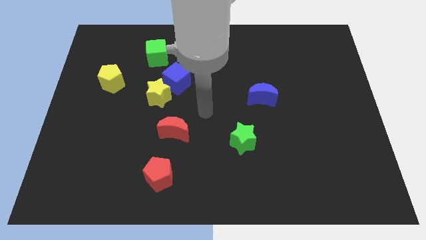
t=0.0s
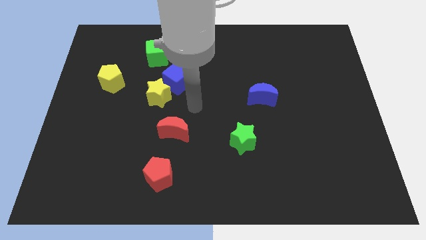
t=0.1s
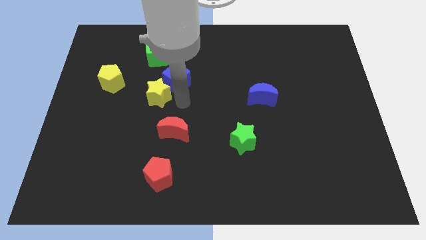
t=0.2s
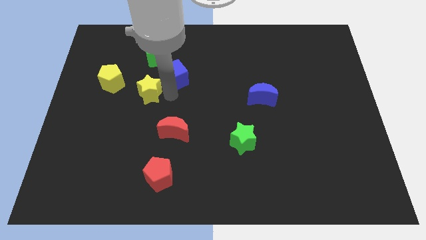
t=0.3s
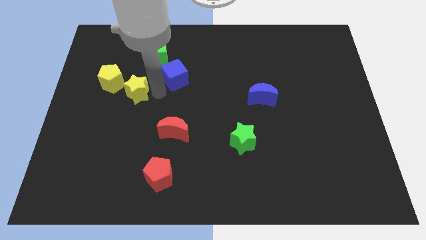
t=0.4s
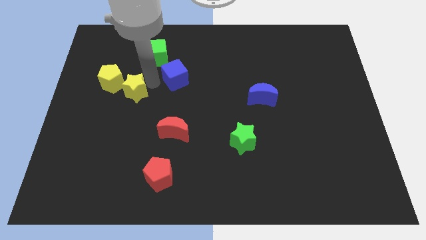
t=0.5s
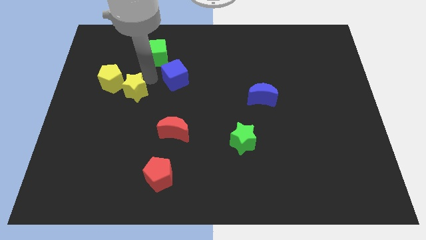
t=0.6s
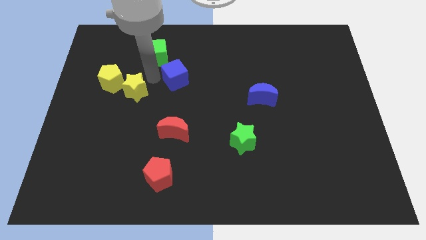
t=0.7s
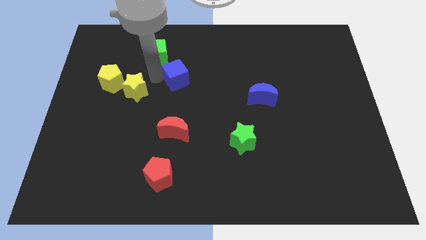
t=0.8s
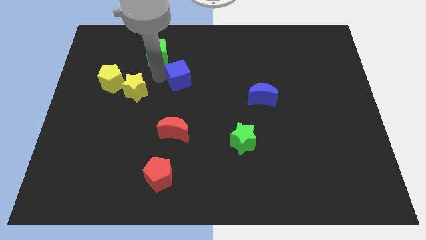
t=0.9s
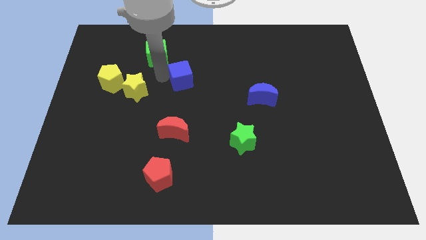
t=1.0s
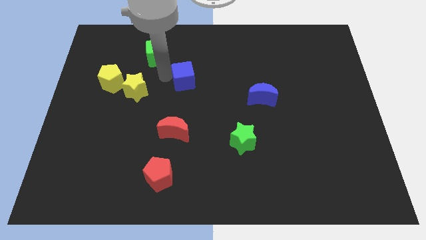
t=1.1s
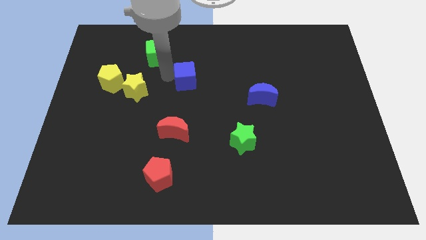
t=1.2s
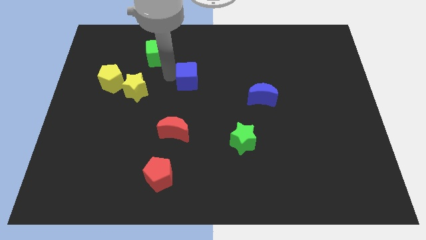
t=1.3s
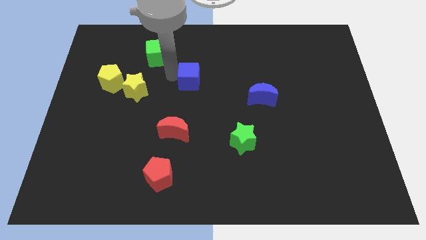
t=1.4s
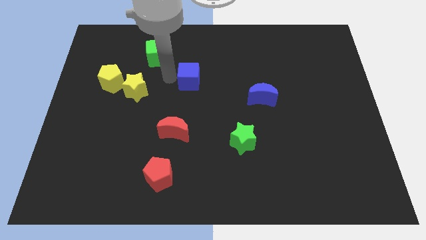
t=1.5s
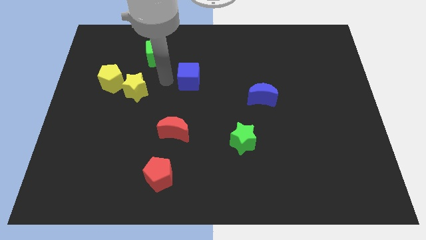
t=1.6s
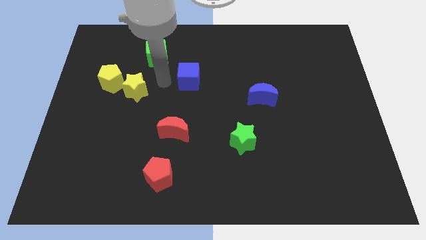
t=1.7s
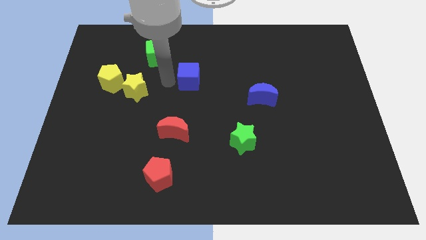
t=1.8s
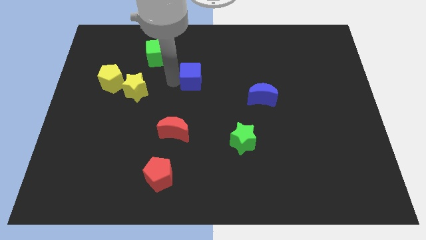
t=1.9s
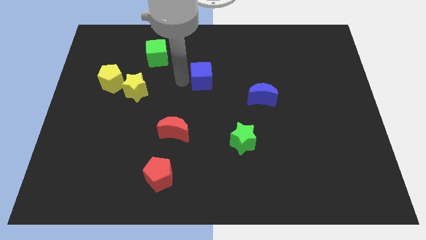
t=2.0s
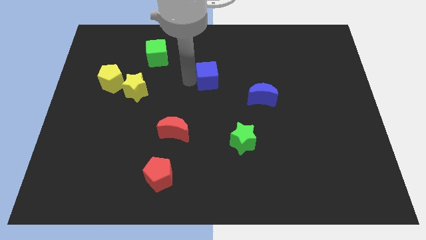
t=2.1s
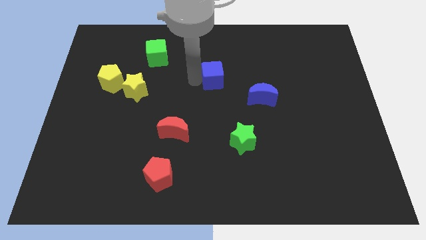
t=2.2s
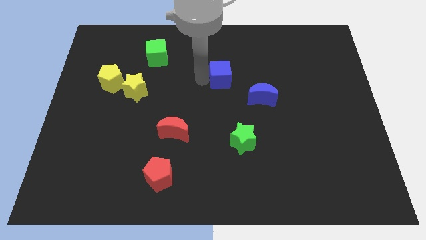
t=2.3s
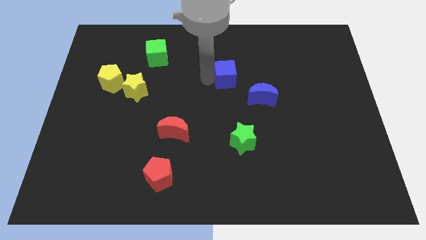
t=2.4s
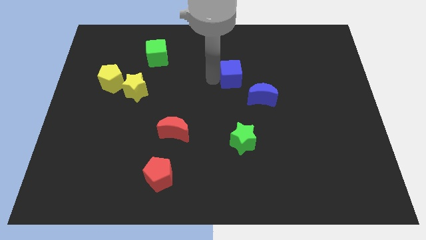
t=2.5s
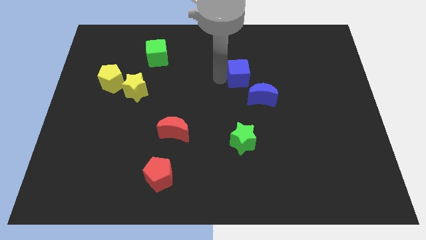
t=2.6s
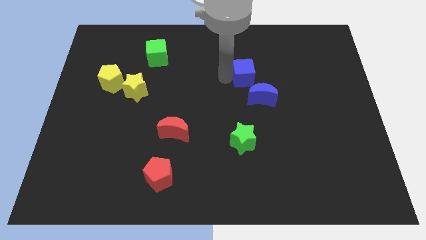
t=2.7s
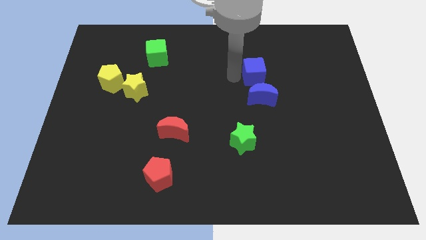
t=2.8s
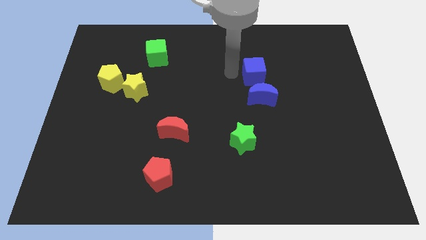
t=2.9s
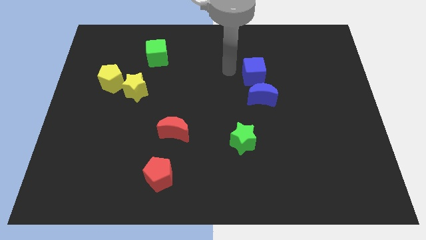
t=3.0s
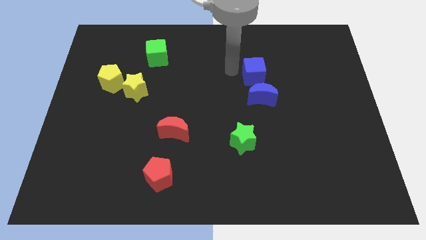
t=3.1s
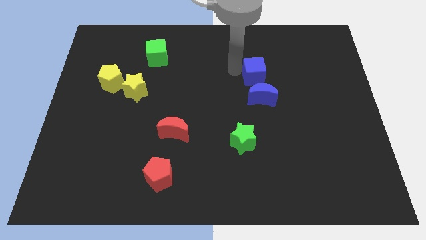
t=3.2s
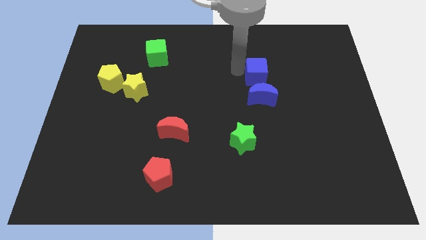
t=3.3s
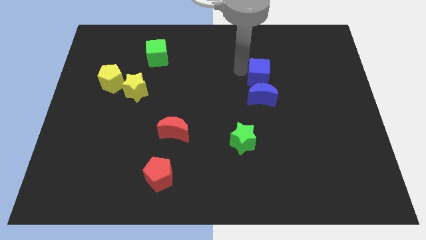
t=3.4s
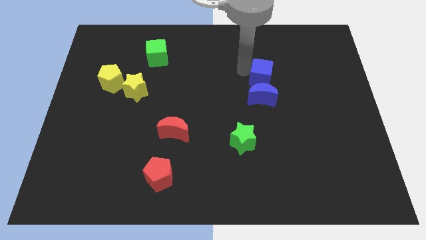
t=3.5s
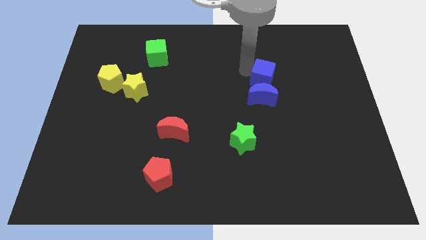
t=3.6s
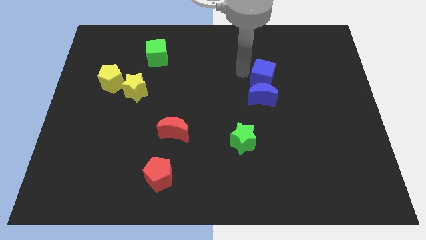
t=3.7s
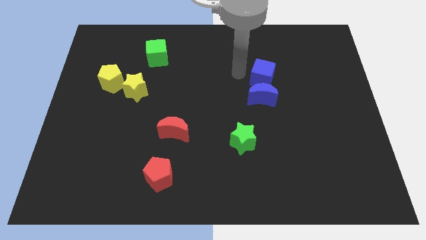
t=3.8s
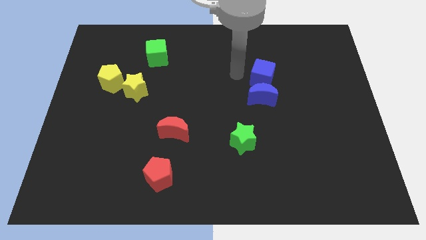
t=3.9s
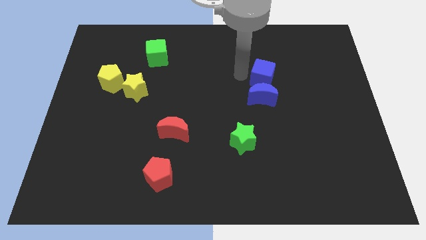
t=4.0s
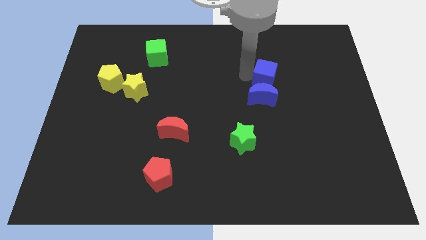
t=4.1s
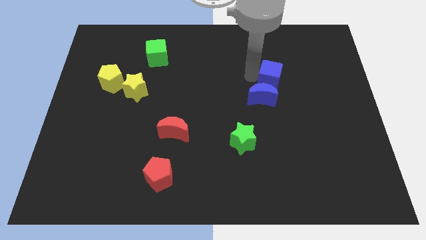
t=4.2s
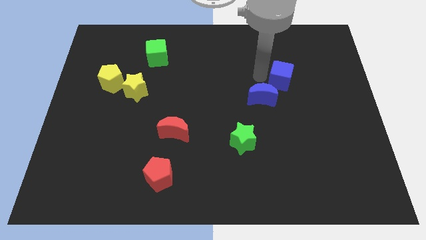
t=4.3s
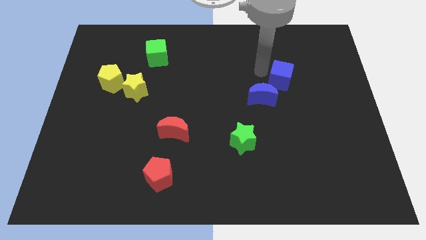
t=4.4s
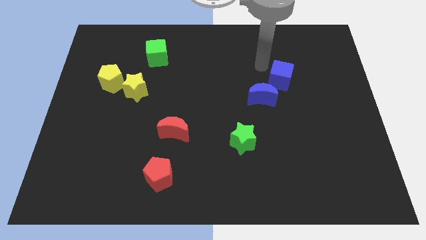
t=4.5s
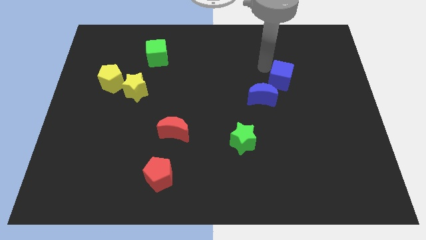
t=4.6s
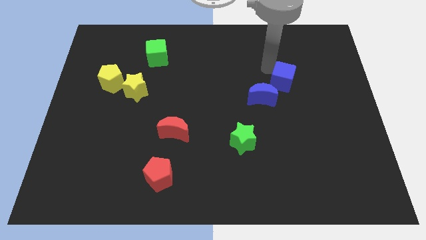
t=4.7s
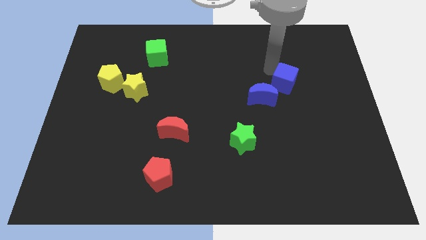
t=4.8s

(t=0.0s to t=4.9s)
move the blue cube right of the blue moon

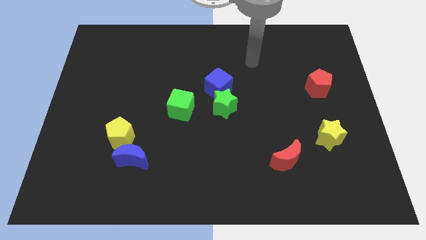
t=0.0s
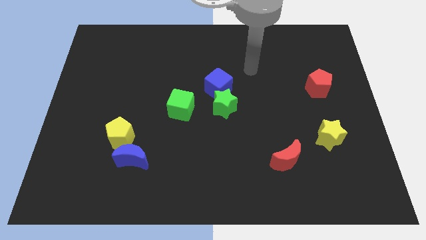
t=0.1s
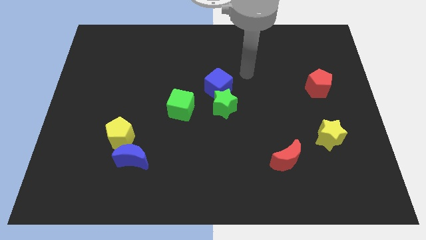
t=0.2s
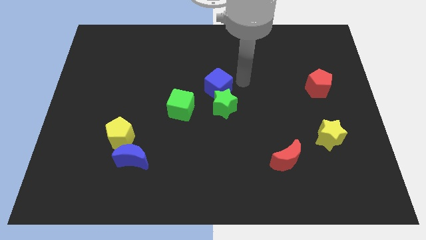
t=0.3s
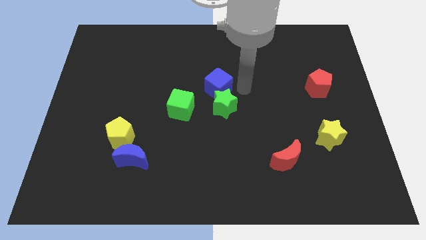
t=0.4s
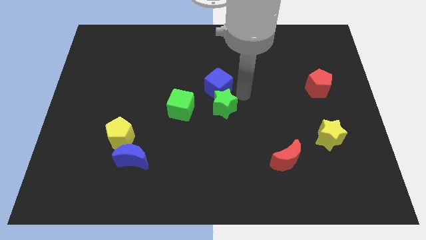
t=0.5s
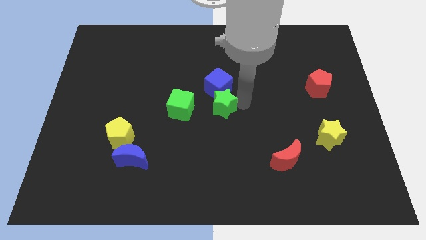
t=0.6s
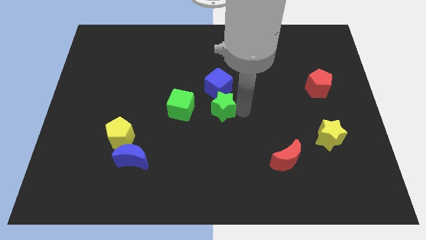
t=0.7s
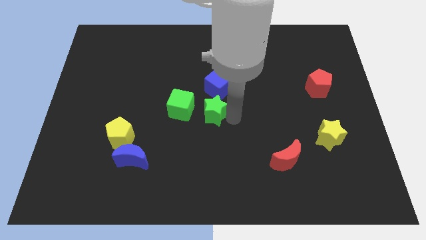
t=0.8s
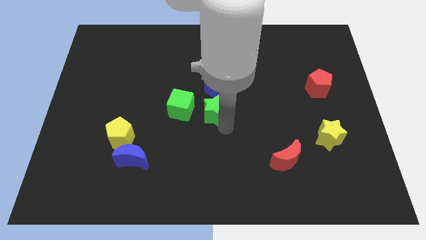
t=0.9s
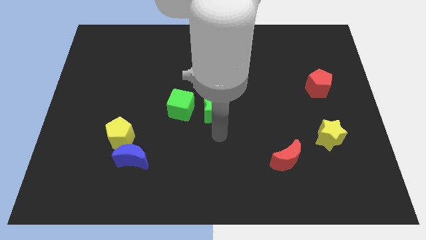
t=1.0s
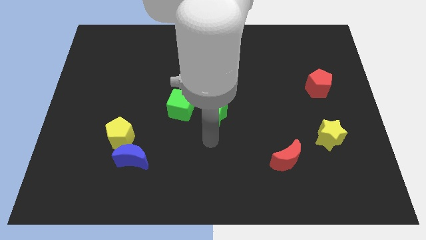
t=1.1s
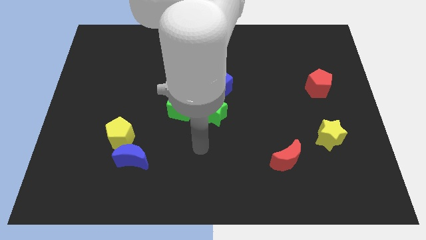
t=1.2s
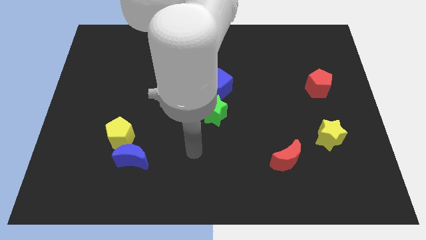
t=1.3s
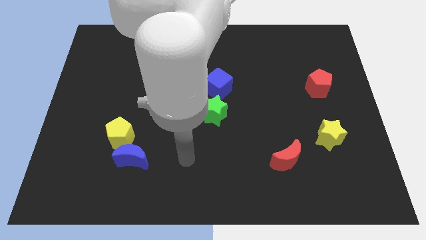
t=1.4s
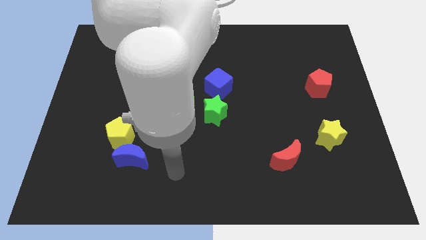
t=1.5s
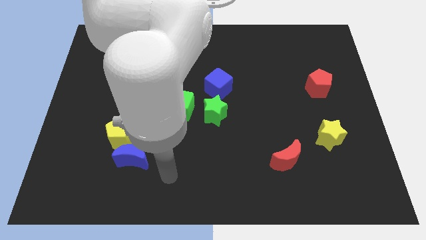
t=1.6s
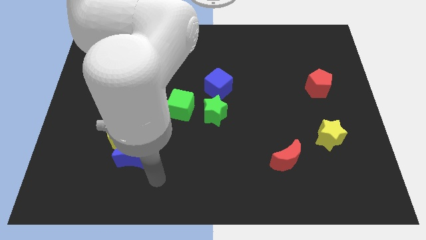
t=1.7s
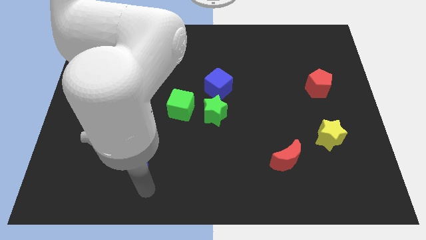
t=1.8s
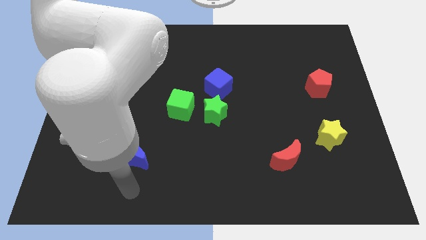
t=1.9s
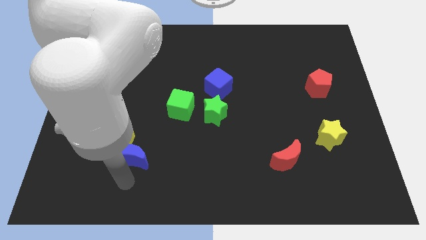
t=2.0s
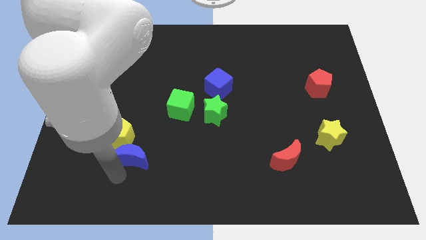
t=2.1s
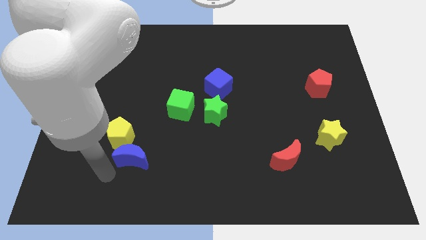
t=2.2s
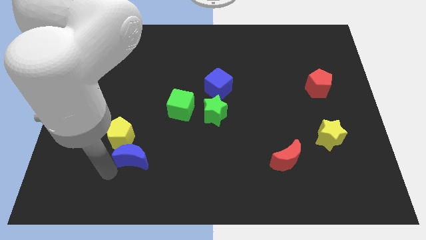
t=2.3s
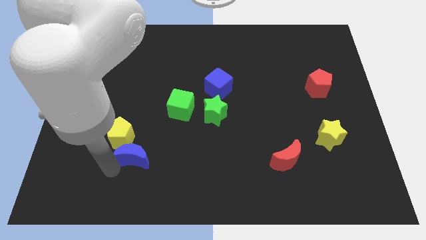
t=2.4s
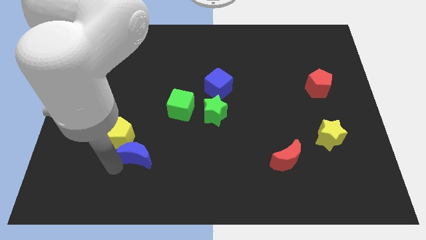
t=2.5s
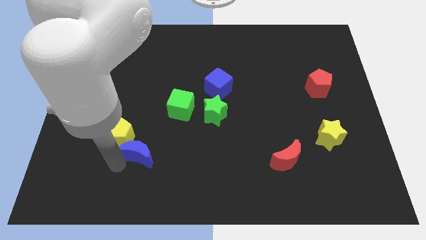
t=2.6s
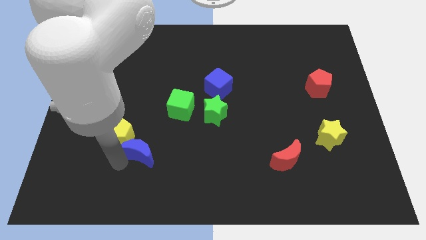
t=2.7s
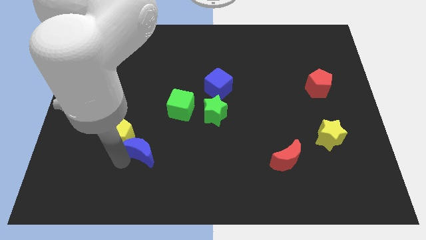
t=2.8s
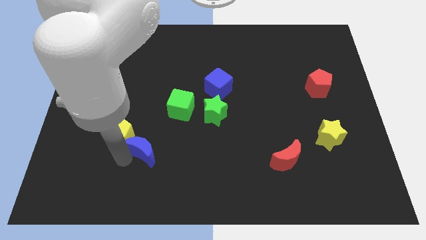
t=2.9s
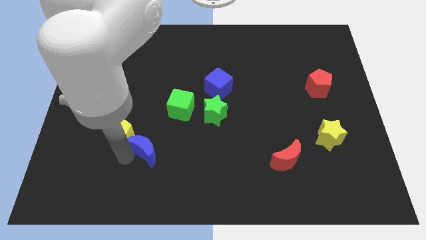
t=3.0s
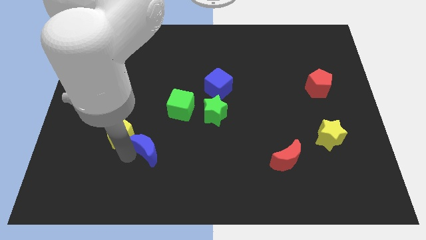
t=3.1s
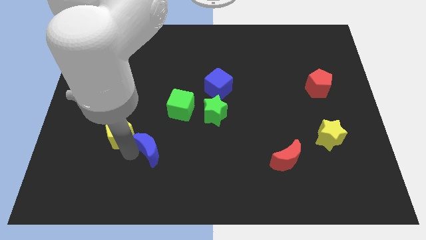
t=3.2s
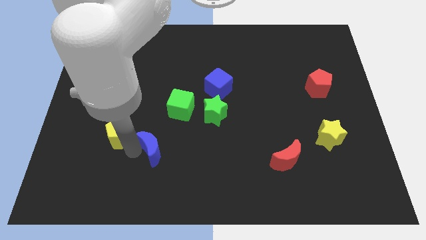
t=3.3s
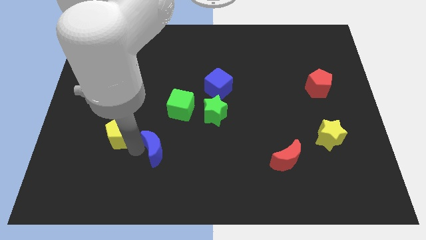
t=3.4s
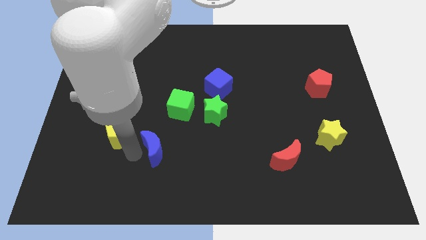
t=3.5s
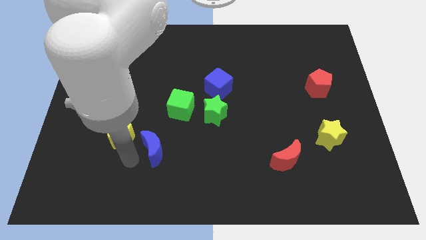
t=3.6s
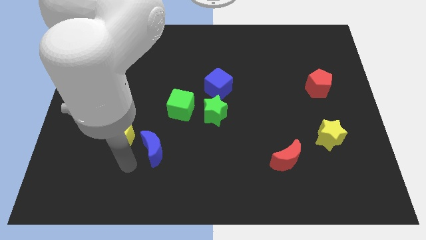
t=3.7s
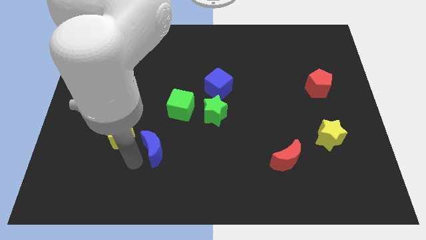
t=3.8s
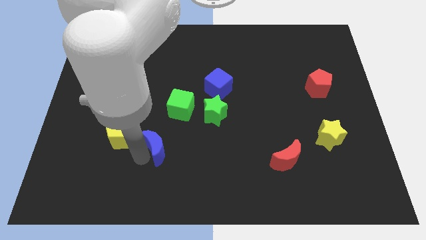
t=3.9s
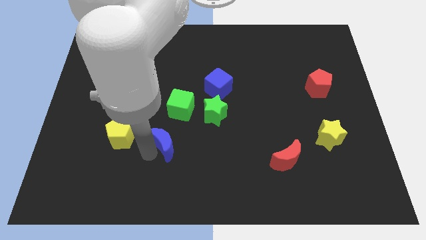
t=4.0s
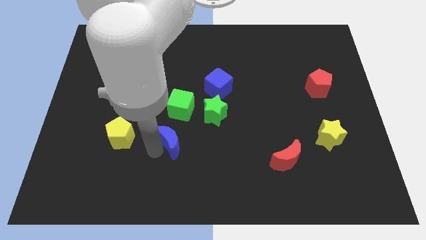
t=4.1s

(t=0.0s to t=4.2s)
push the blue moon to the bottom left side of the green star
